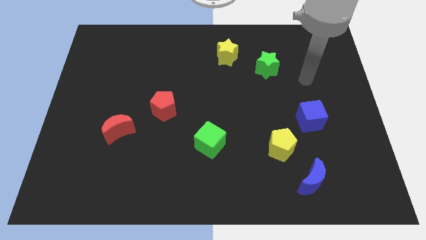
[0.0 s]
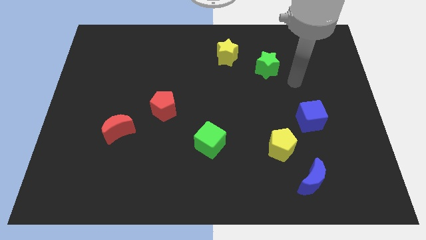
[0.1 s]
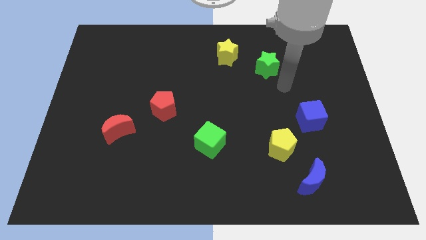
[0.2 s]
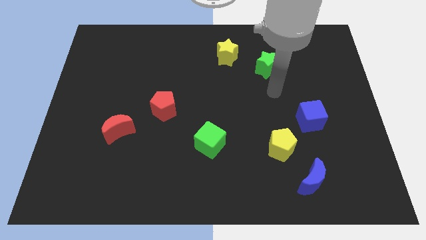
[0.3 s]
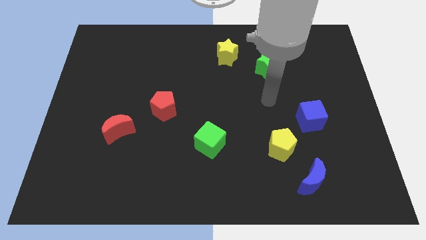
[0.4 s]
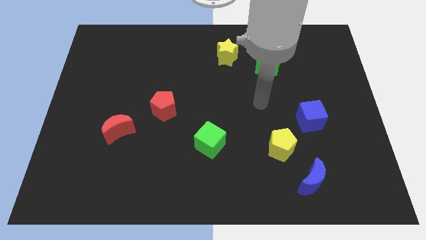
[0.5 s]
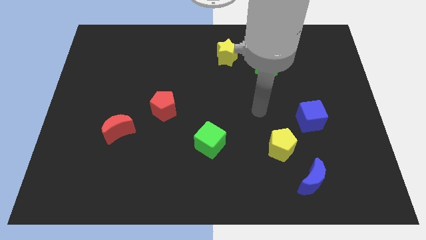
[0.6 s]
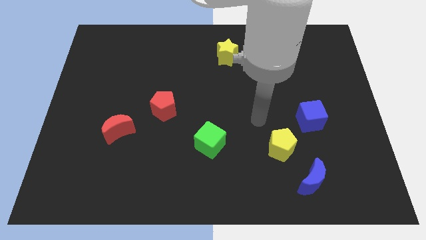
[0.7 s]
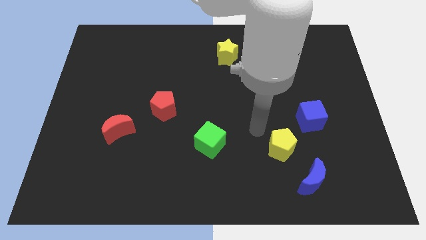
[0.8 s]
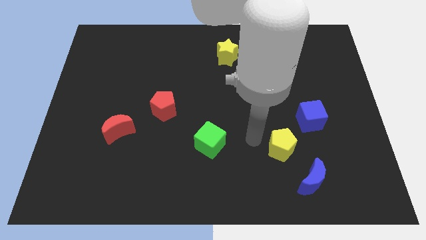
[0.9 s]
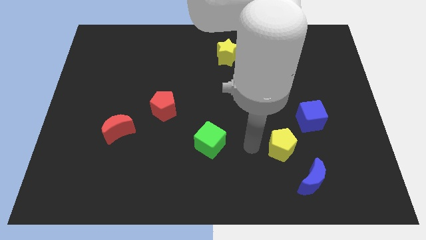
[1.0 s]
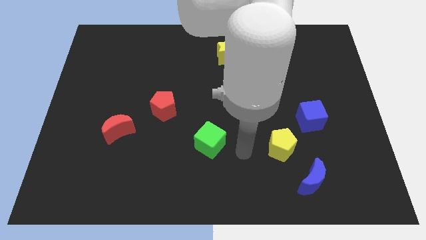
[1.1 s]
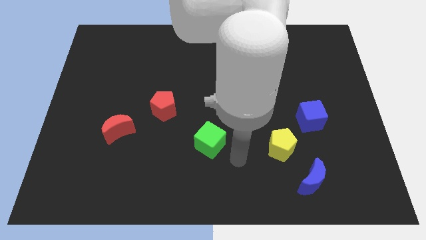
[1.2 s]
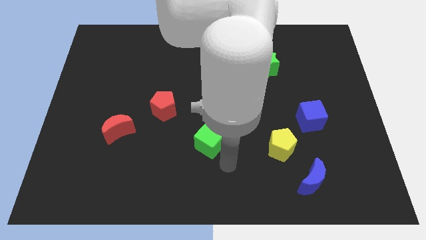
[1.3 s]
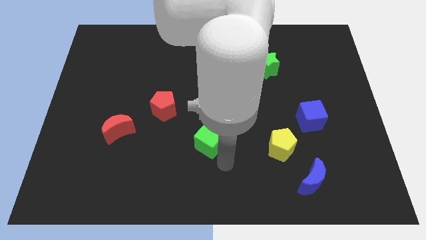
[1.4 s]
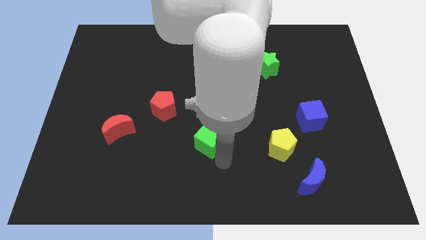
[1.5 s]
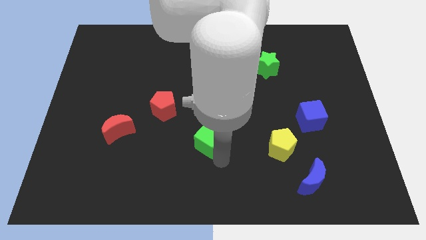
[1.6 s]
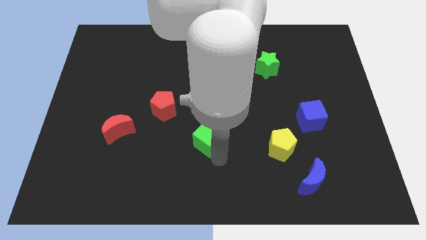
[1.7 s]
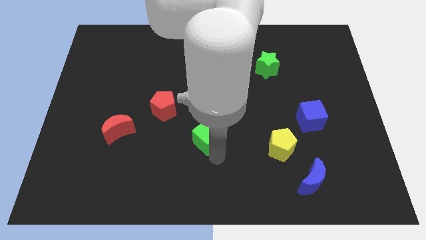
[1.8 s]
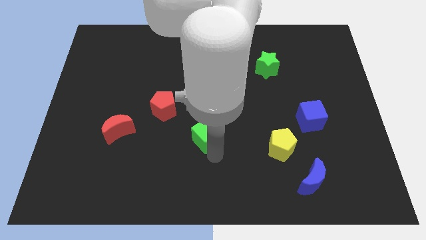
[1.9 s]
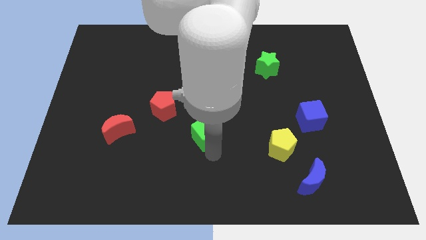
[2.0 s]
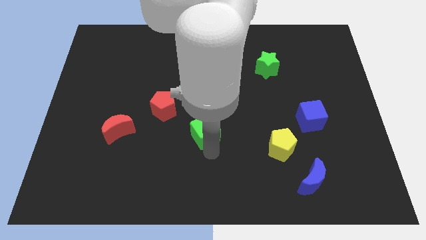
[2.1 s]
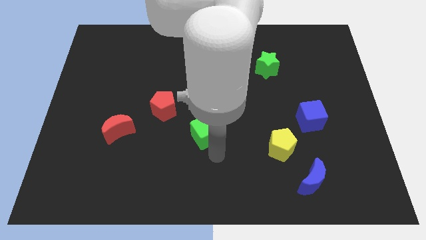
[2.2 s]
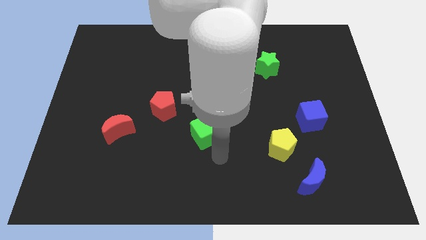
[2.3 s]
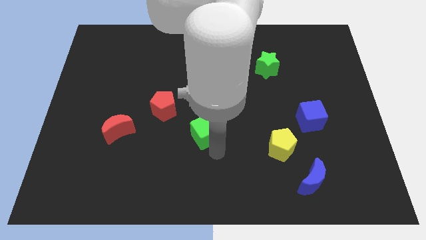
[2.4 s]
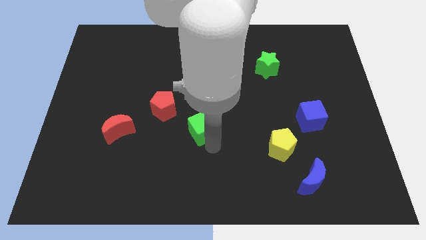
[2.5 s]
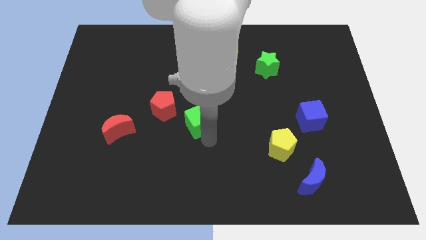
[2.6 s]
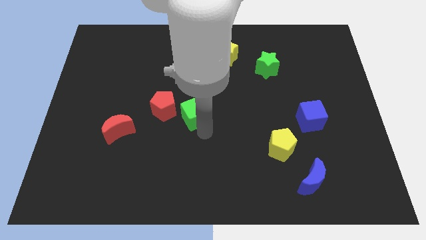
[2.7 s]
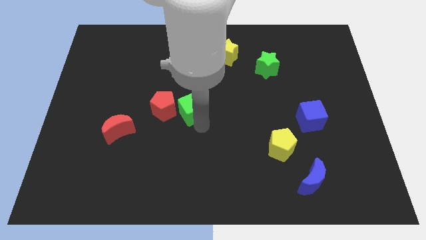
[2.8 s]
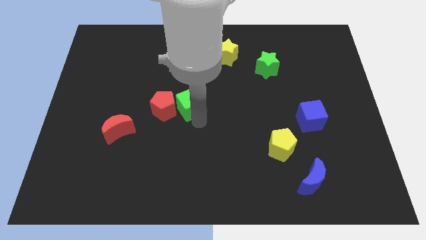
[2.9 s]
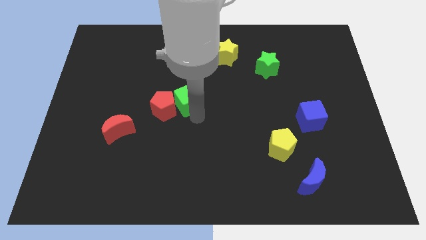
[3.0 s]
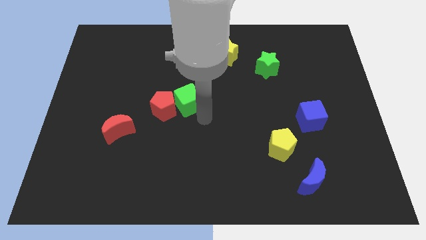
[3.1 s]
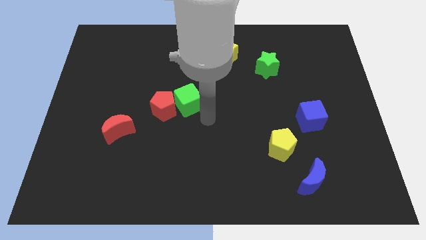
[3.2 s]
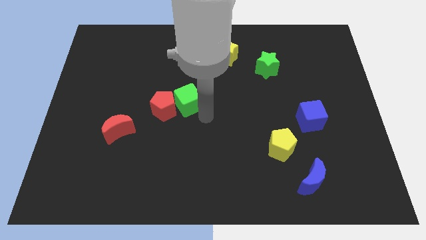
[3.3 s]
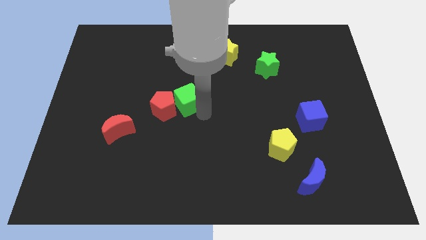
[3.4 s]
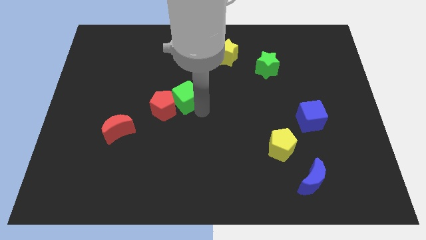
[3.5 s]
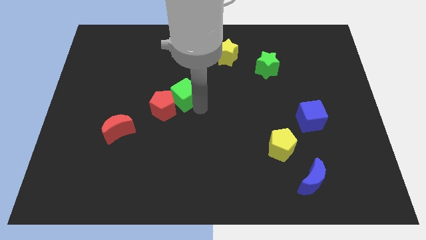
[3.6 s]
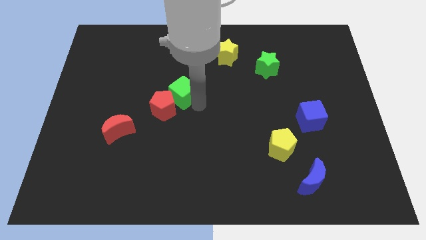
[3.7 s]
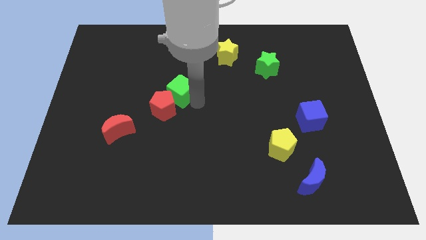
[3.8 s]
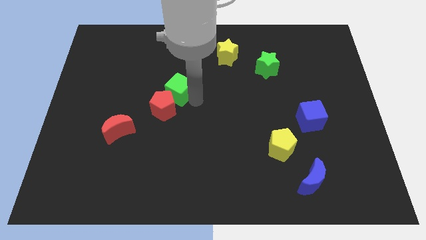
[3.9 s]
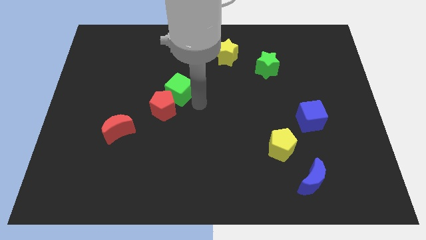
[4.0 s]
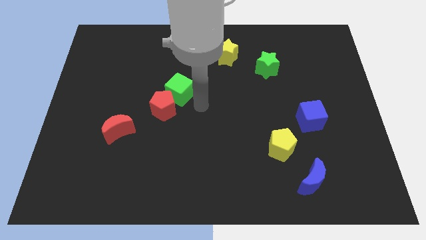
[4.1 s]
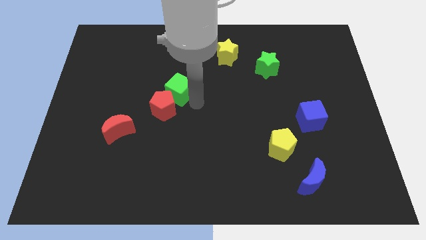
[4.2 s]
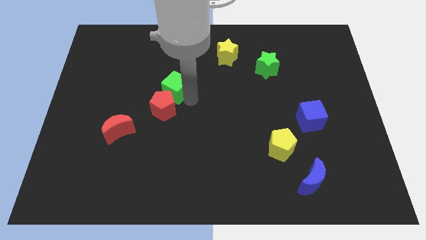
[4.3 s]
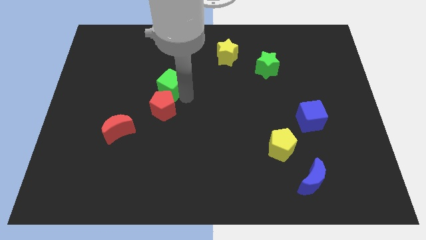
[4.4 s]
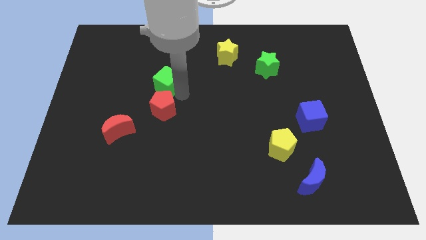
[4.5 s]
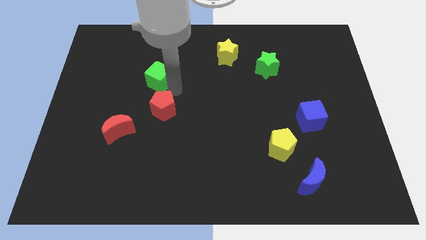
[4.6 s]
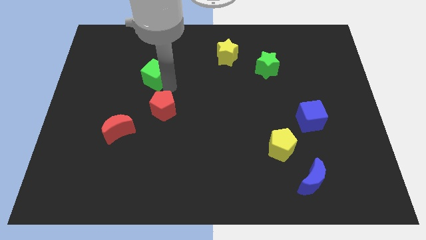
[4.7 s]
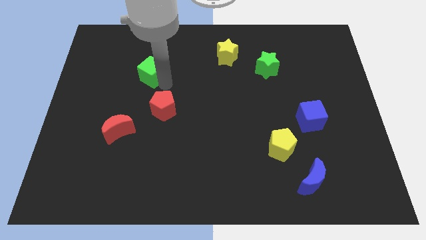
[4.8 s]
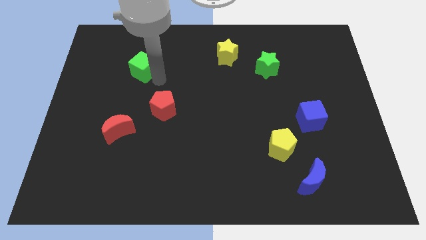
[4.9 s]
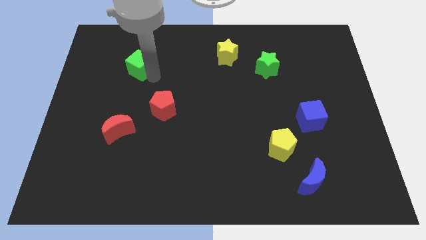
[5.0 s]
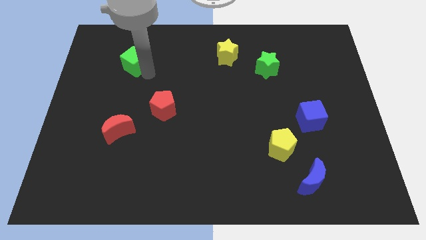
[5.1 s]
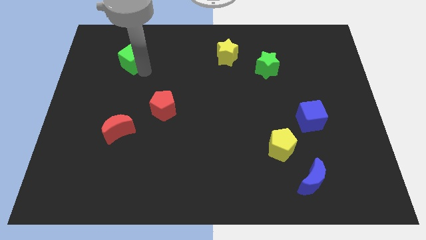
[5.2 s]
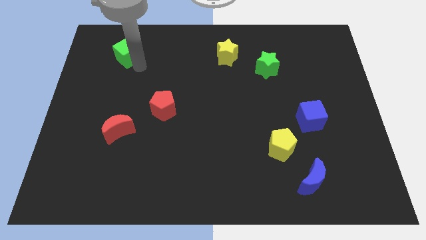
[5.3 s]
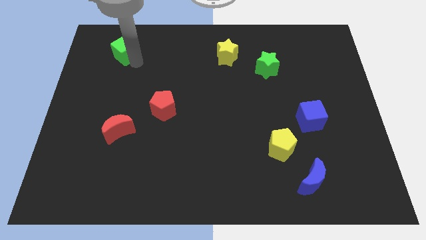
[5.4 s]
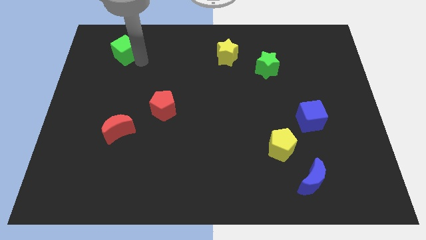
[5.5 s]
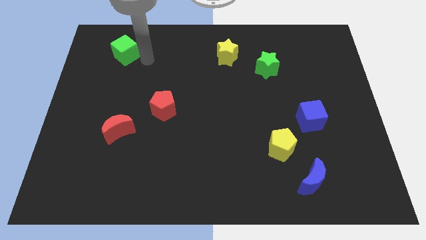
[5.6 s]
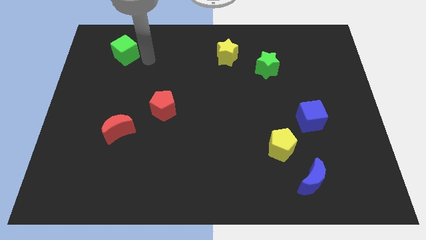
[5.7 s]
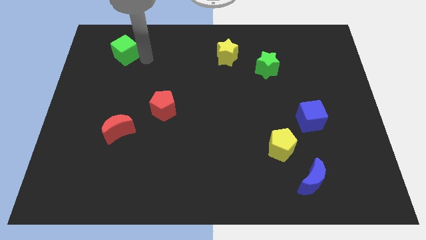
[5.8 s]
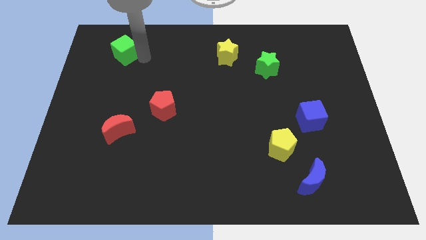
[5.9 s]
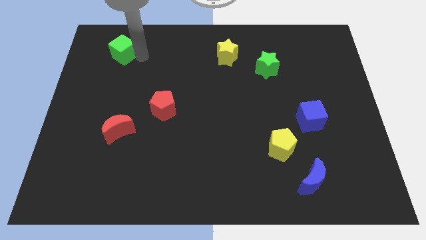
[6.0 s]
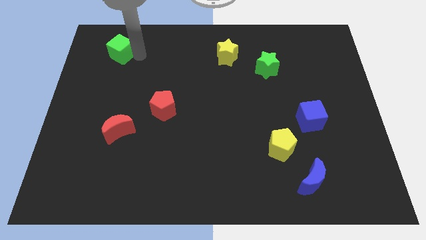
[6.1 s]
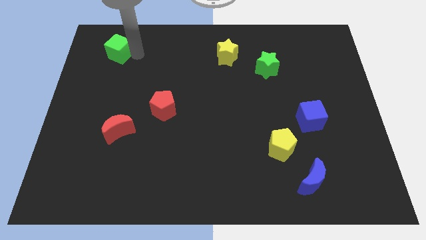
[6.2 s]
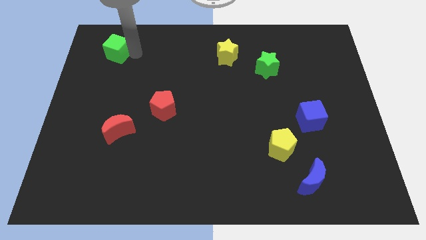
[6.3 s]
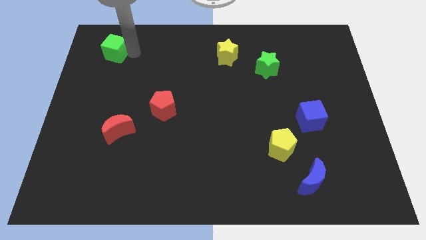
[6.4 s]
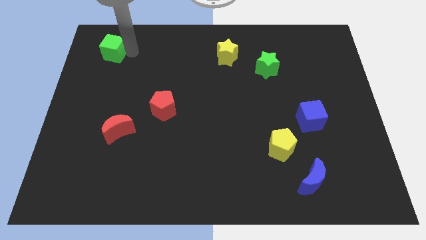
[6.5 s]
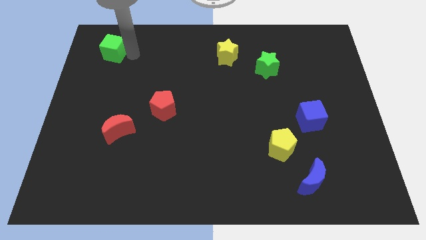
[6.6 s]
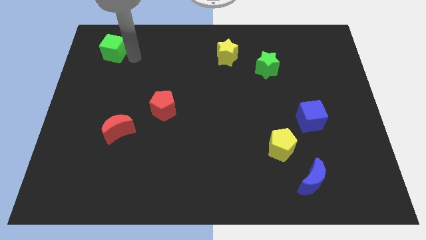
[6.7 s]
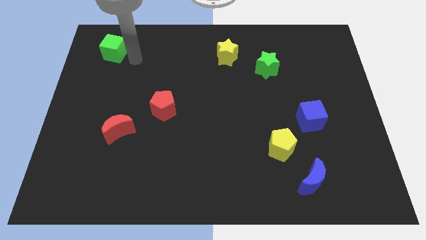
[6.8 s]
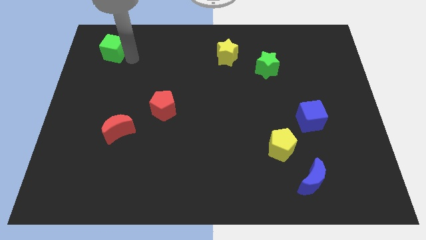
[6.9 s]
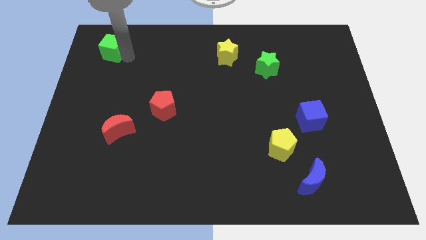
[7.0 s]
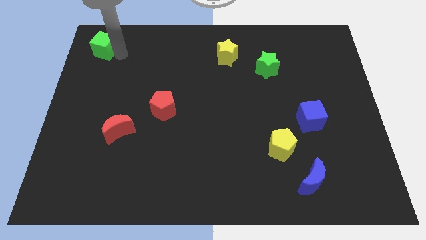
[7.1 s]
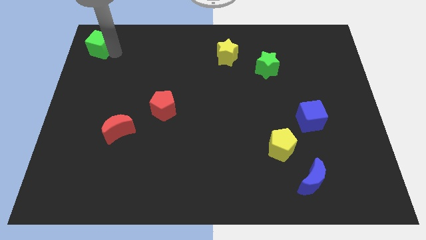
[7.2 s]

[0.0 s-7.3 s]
slide the green cube to the top left
